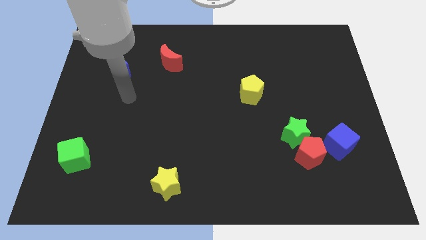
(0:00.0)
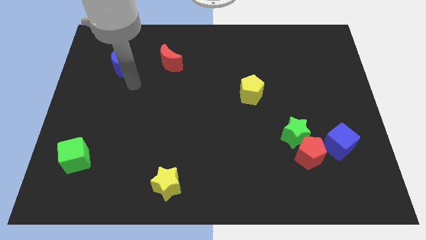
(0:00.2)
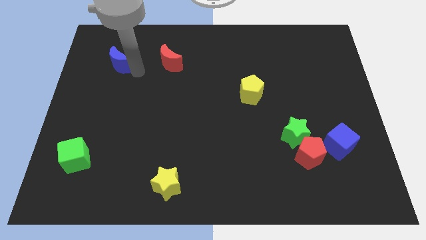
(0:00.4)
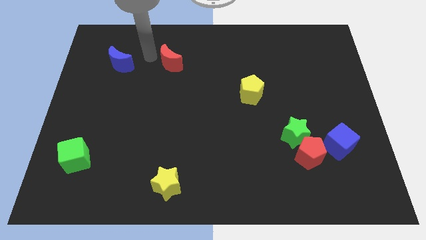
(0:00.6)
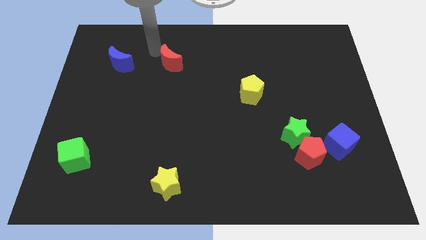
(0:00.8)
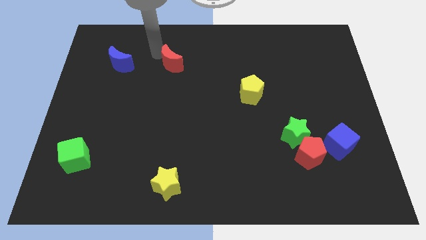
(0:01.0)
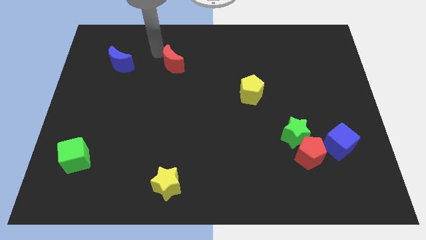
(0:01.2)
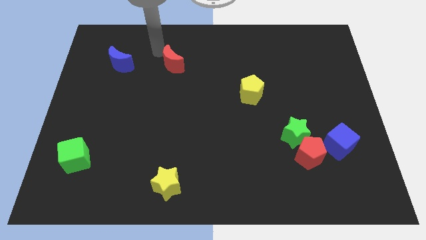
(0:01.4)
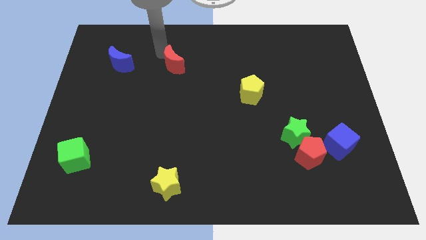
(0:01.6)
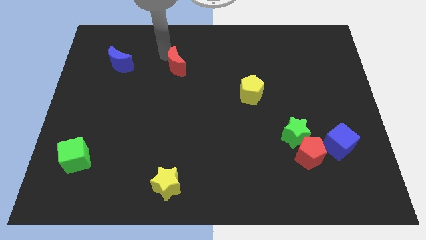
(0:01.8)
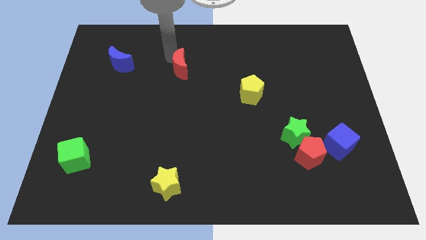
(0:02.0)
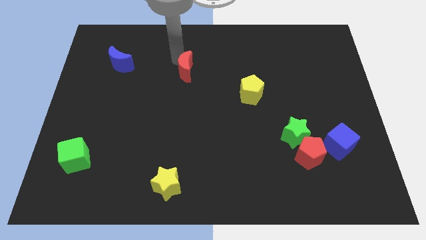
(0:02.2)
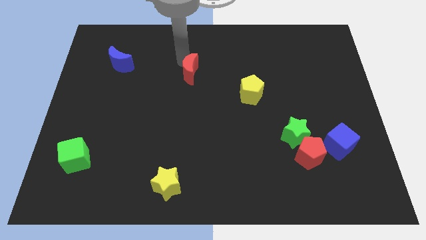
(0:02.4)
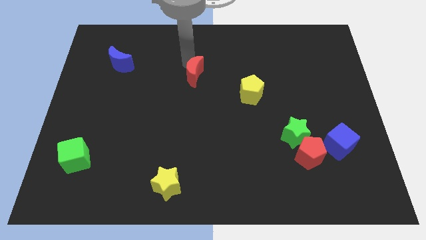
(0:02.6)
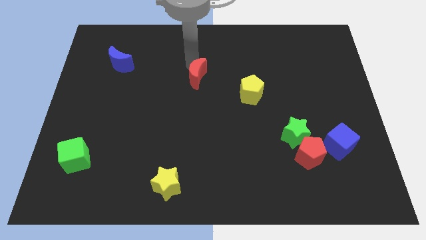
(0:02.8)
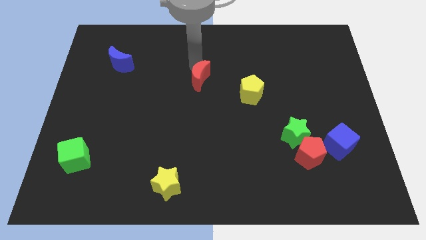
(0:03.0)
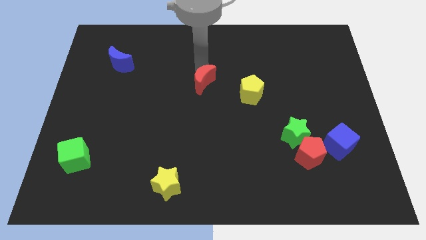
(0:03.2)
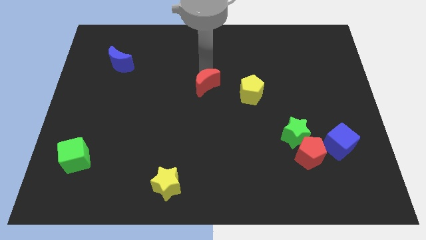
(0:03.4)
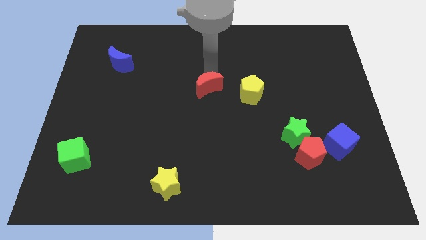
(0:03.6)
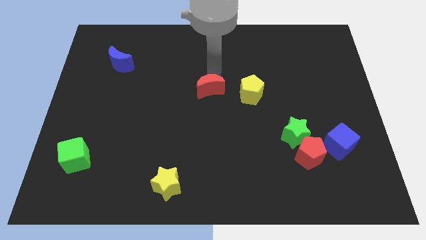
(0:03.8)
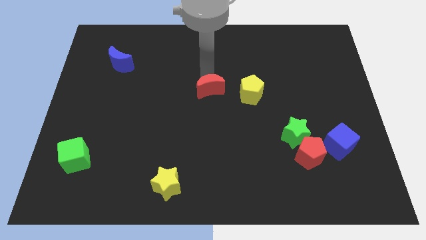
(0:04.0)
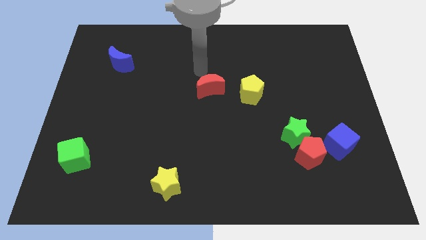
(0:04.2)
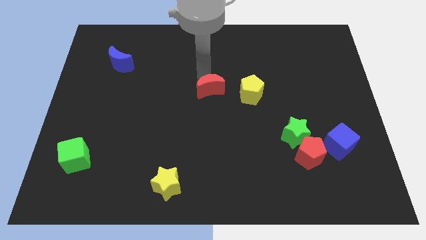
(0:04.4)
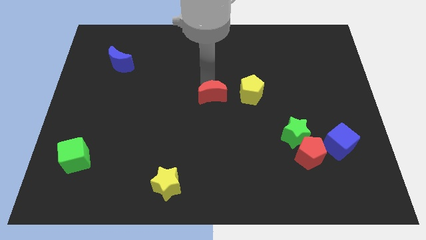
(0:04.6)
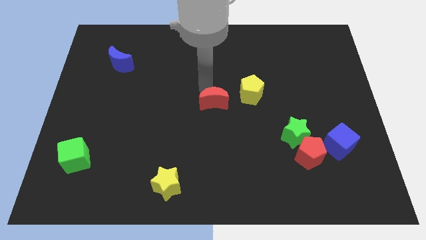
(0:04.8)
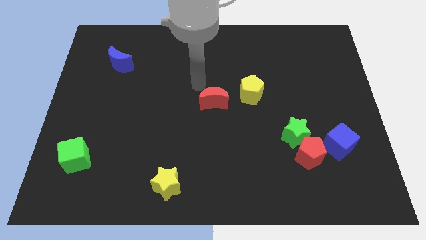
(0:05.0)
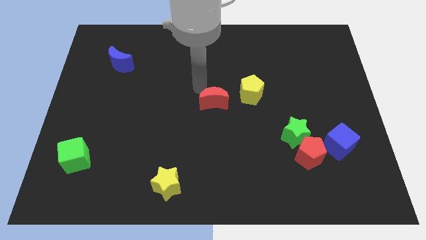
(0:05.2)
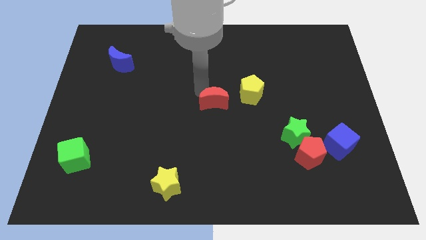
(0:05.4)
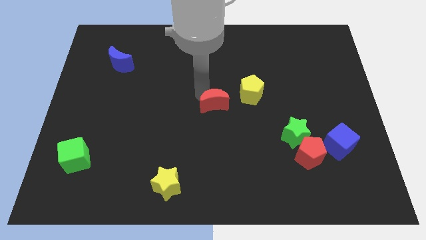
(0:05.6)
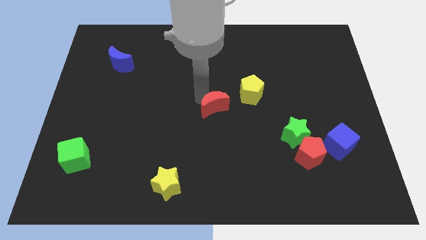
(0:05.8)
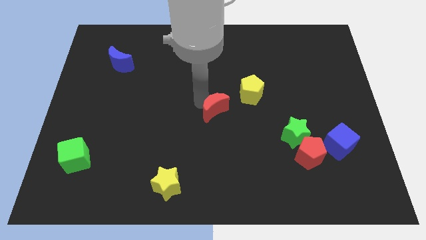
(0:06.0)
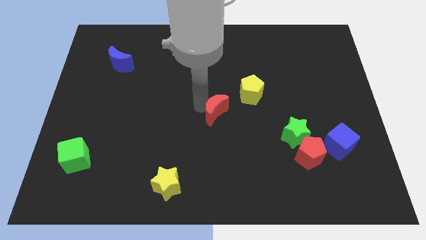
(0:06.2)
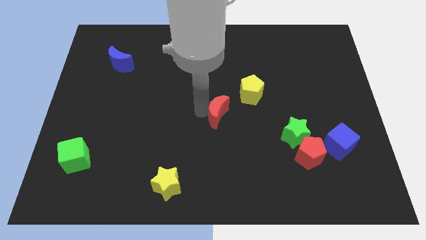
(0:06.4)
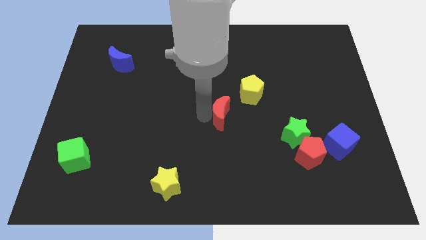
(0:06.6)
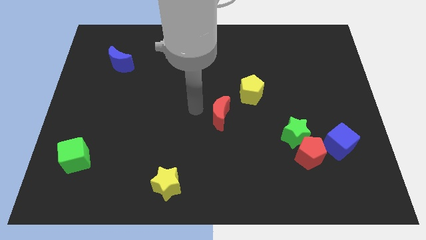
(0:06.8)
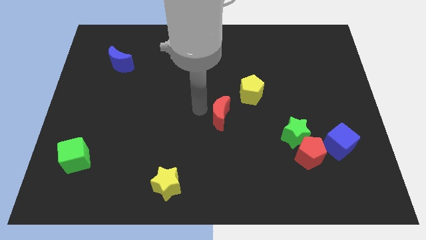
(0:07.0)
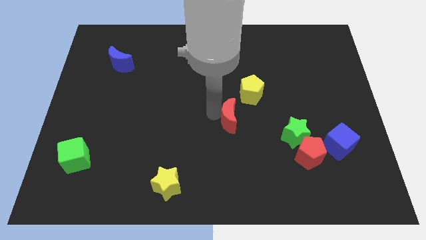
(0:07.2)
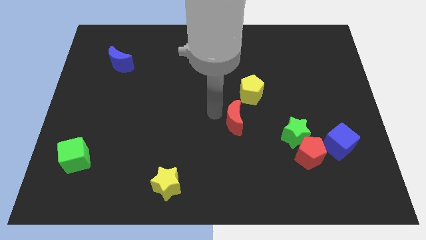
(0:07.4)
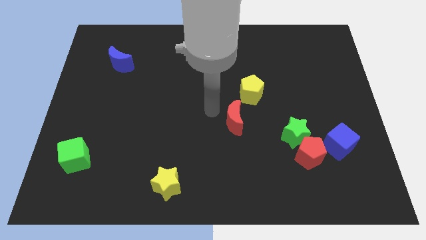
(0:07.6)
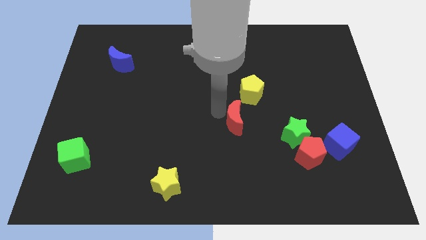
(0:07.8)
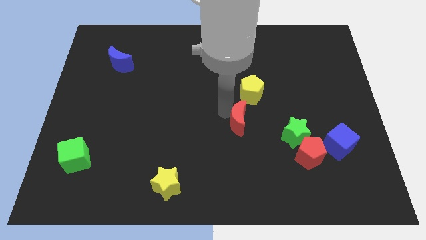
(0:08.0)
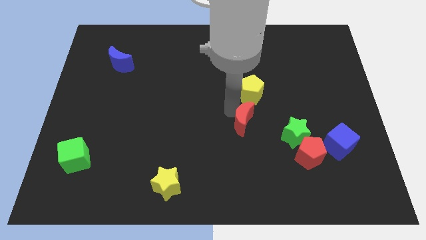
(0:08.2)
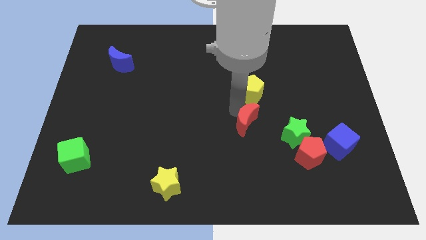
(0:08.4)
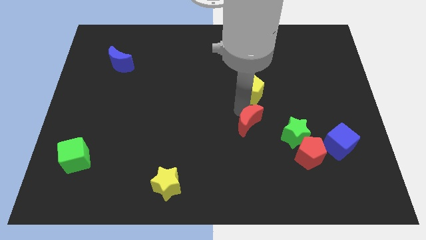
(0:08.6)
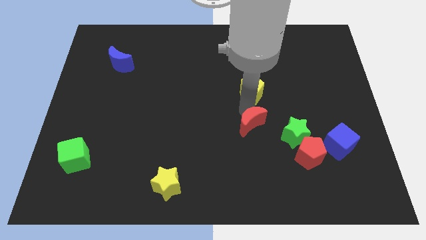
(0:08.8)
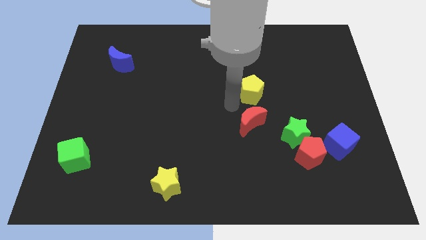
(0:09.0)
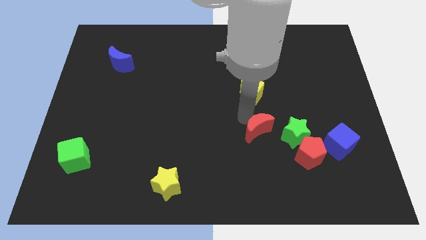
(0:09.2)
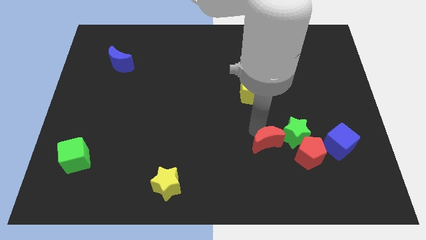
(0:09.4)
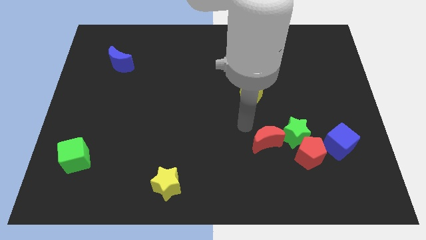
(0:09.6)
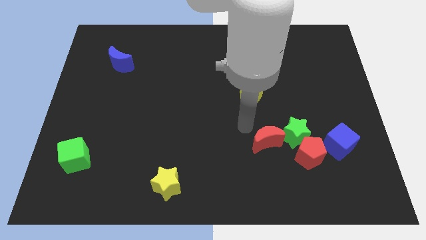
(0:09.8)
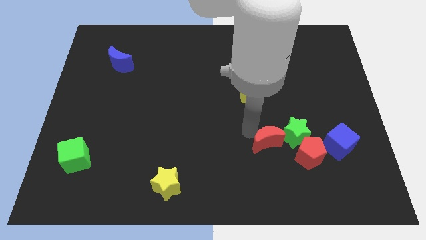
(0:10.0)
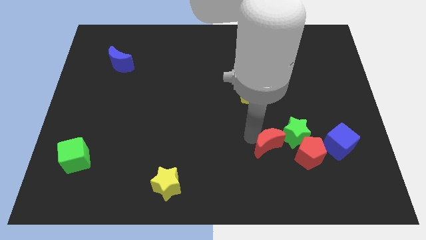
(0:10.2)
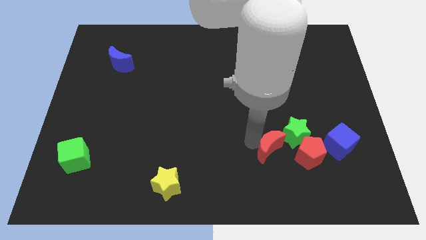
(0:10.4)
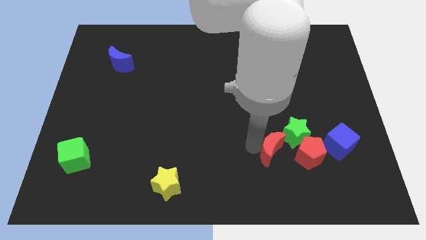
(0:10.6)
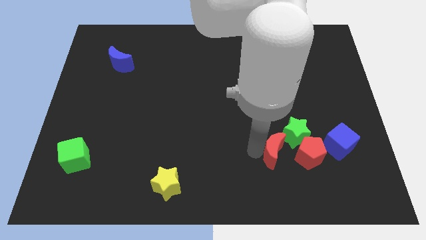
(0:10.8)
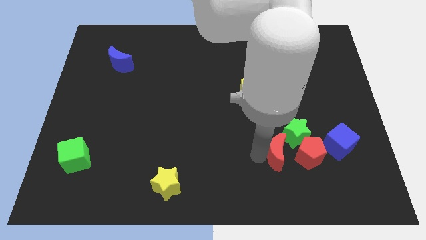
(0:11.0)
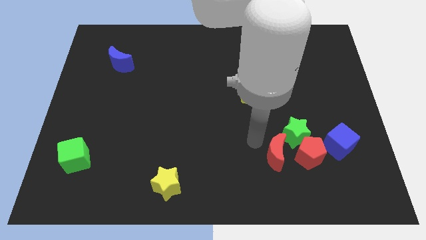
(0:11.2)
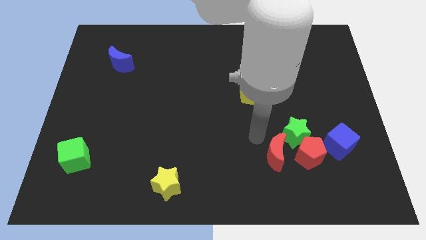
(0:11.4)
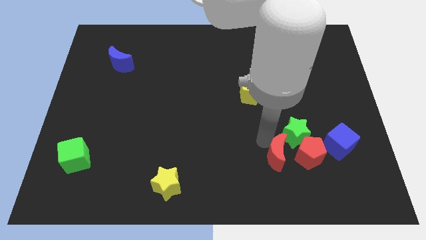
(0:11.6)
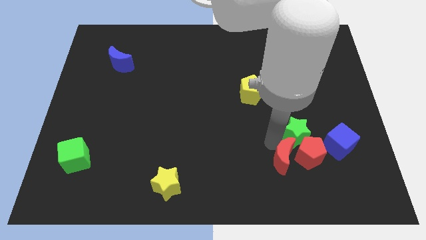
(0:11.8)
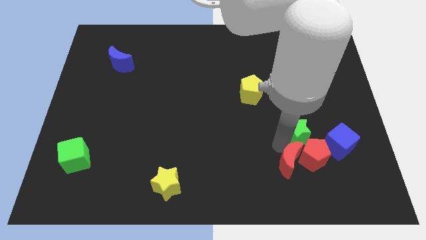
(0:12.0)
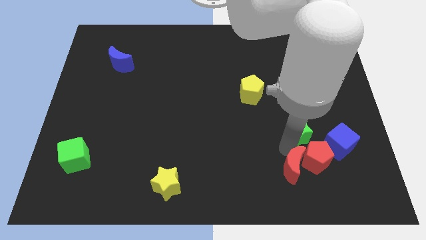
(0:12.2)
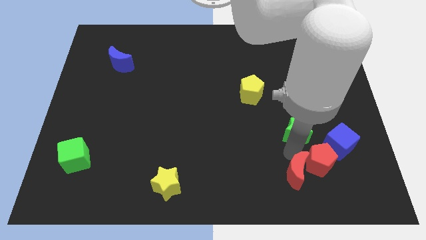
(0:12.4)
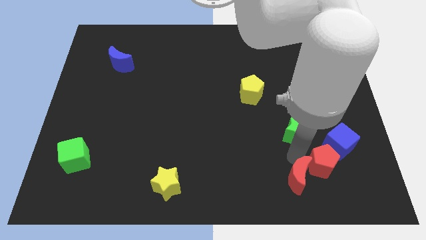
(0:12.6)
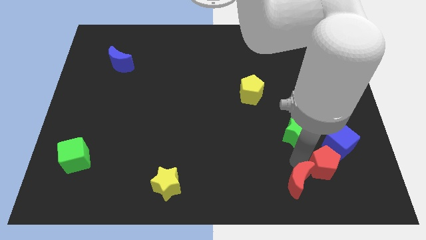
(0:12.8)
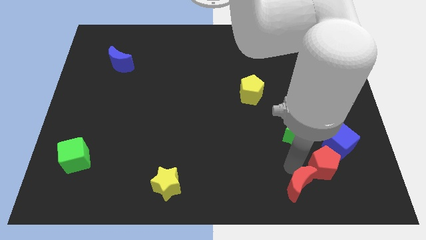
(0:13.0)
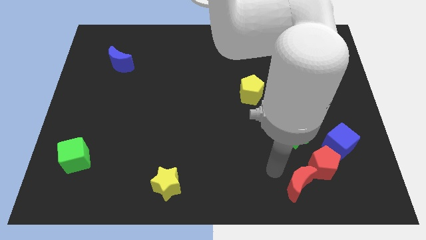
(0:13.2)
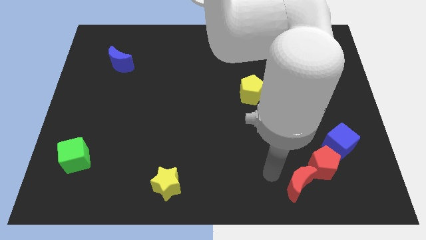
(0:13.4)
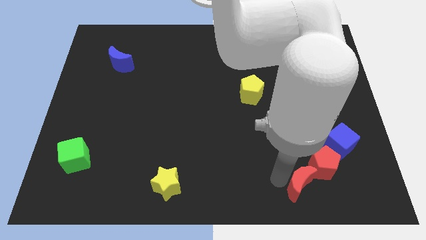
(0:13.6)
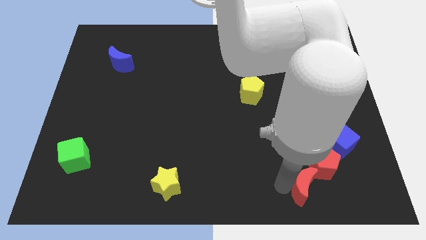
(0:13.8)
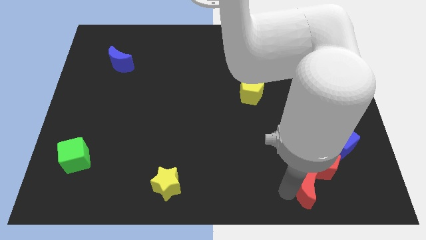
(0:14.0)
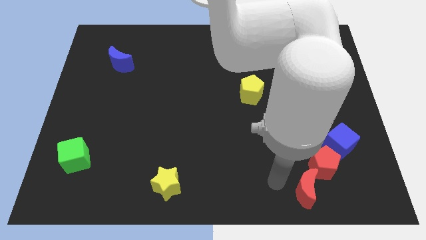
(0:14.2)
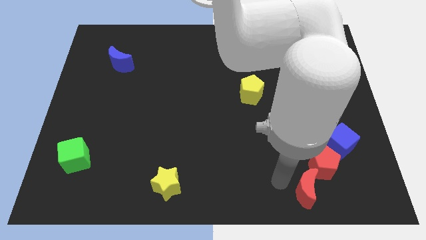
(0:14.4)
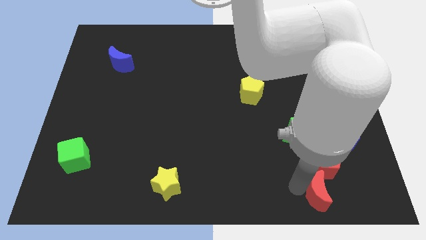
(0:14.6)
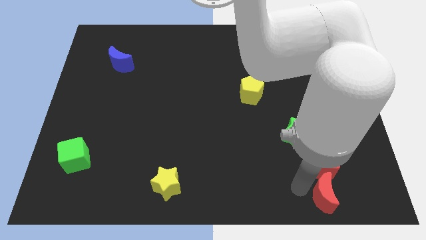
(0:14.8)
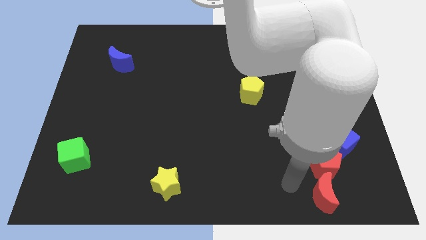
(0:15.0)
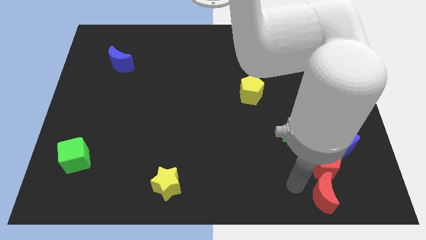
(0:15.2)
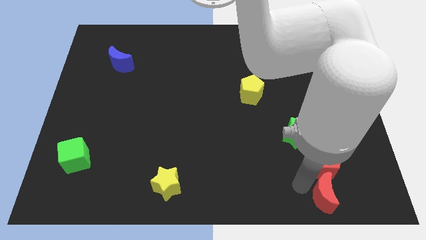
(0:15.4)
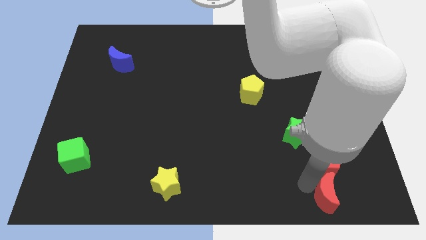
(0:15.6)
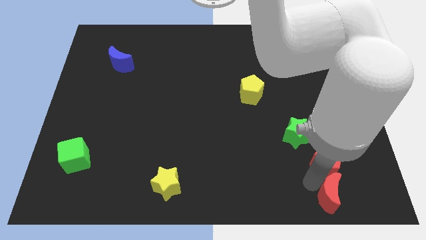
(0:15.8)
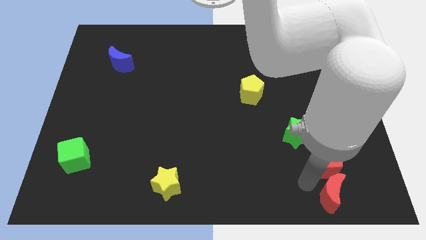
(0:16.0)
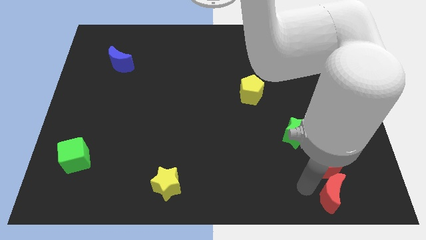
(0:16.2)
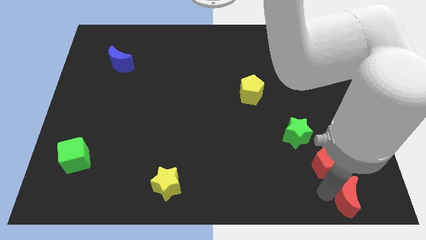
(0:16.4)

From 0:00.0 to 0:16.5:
put the red moon to the lower right corner
